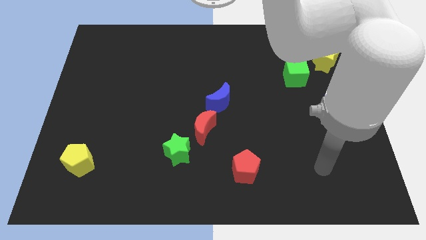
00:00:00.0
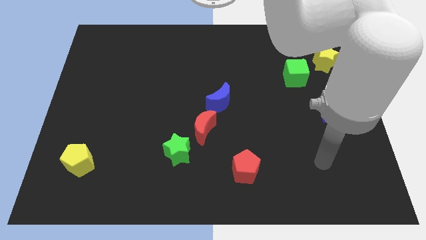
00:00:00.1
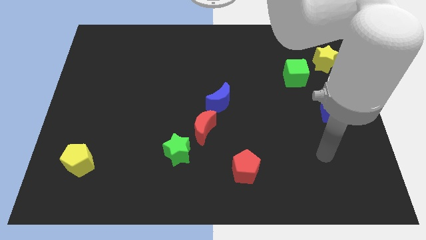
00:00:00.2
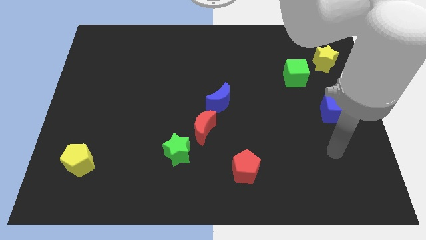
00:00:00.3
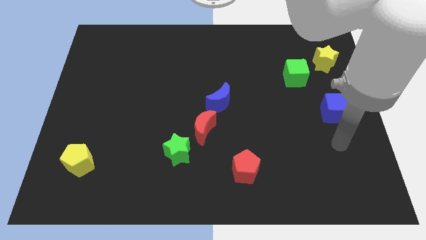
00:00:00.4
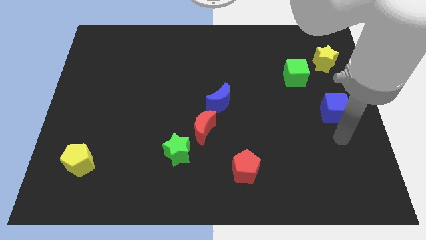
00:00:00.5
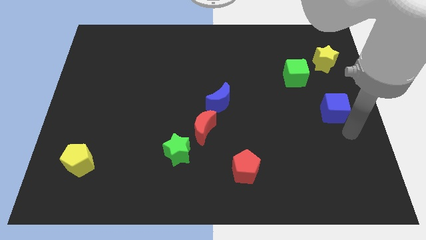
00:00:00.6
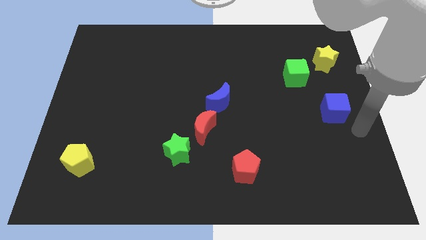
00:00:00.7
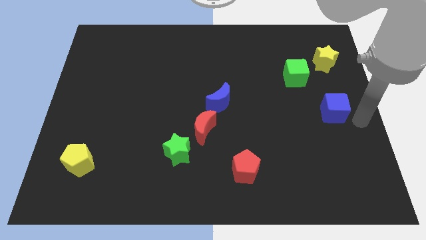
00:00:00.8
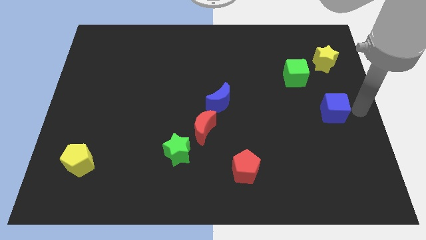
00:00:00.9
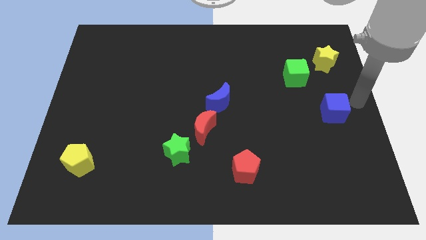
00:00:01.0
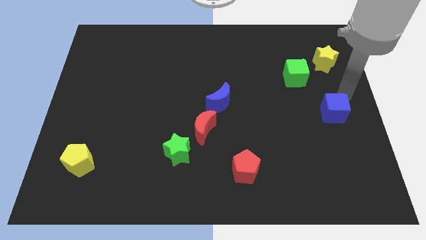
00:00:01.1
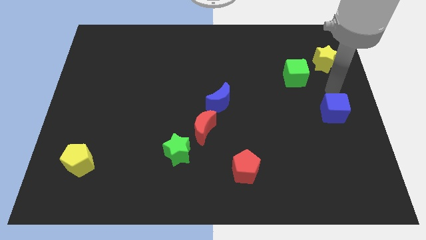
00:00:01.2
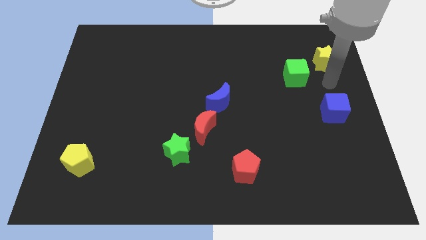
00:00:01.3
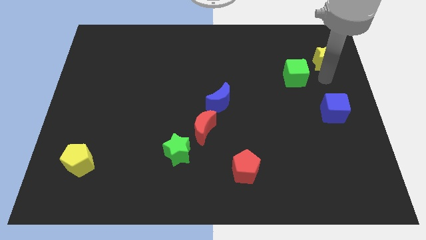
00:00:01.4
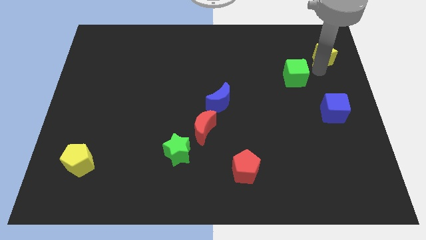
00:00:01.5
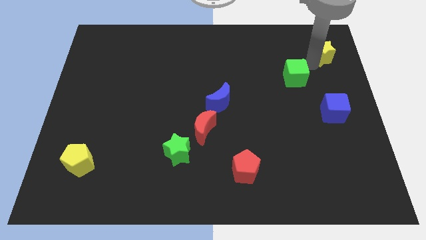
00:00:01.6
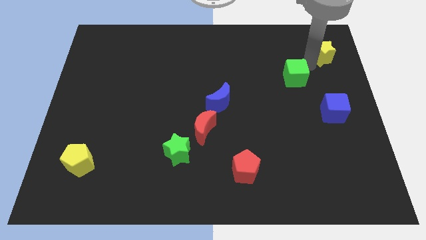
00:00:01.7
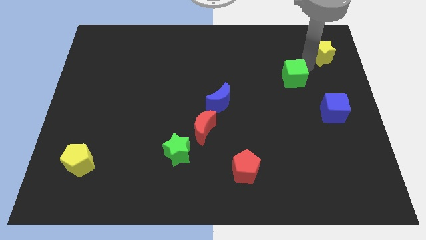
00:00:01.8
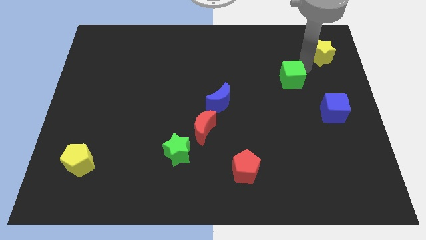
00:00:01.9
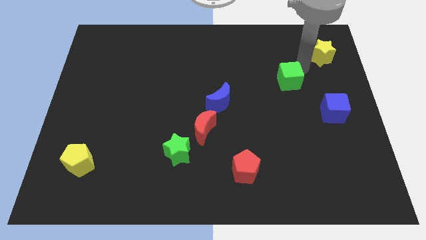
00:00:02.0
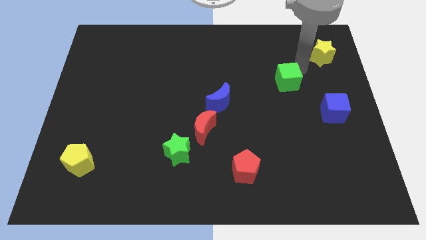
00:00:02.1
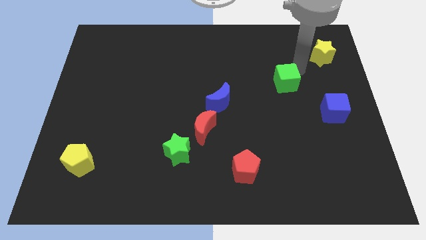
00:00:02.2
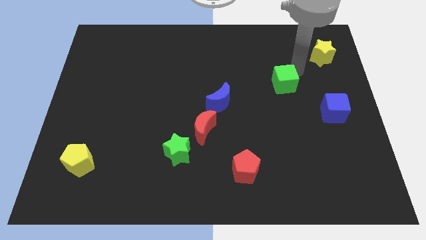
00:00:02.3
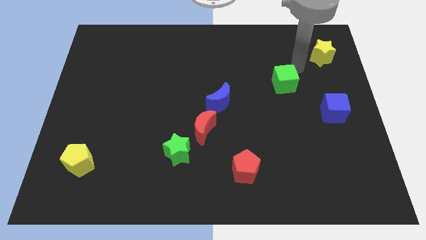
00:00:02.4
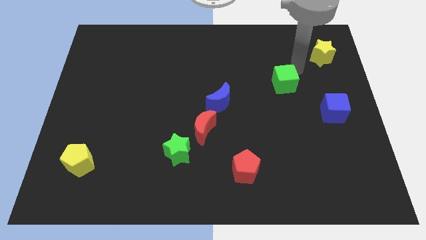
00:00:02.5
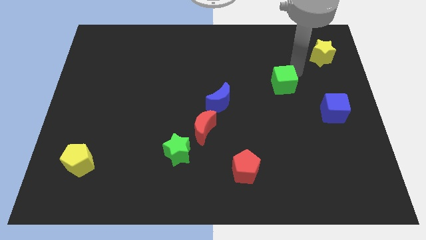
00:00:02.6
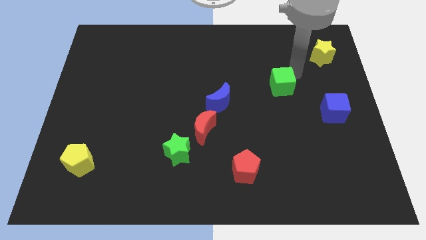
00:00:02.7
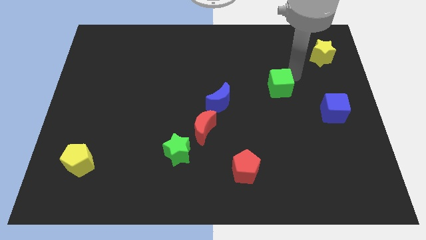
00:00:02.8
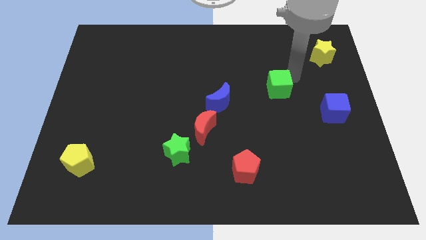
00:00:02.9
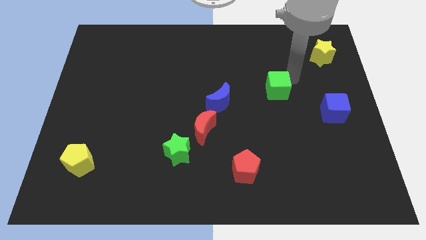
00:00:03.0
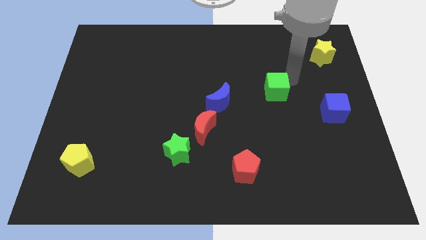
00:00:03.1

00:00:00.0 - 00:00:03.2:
move the green cube a little bit diagonally downwards and left

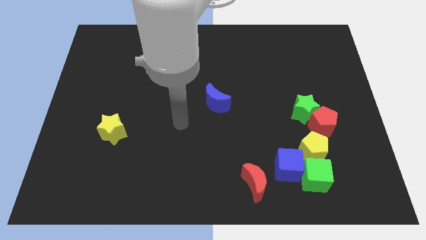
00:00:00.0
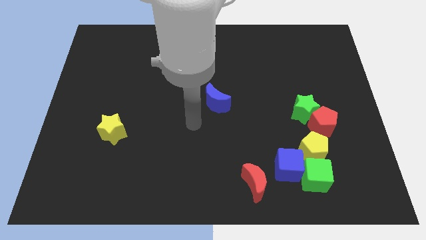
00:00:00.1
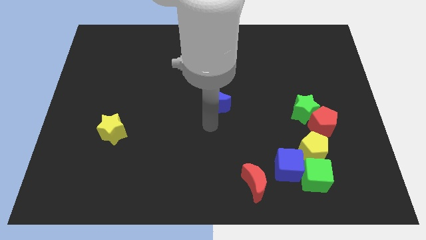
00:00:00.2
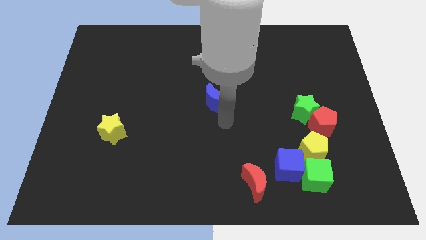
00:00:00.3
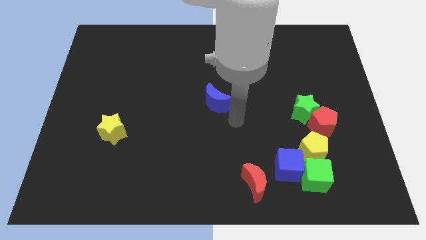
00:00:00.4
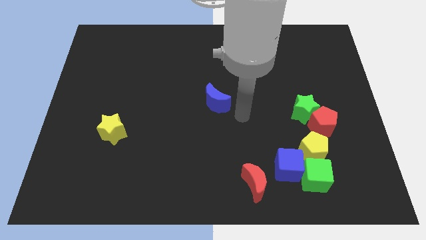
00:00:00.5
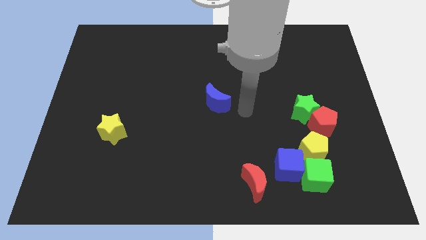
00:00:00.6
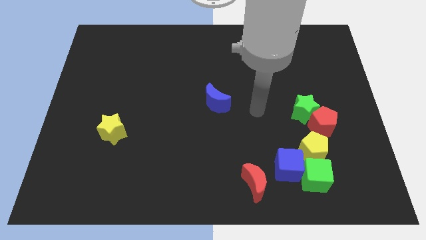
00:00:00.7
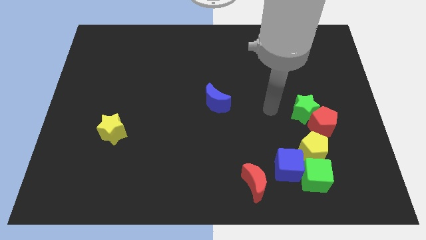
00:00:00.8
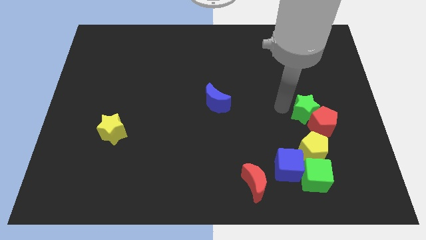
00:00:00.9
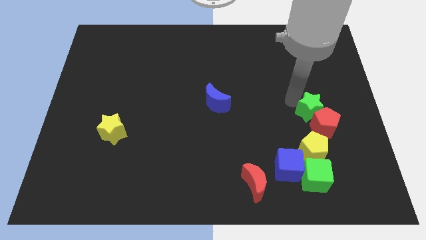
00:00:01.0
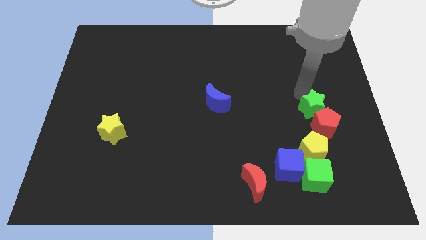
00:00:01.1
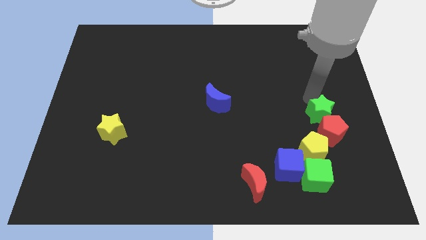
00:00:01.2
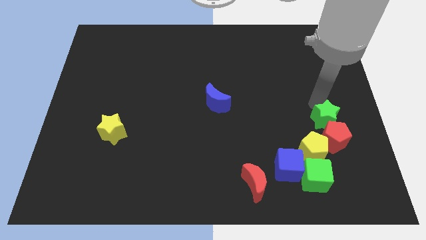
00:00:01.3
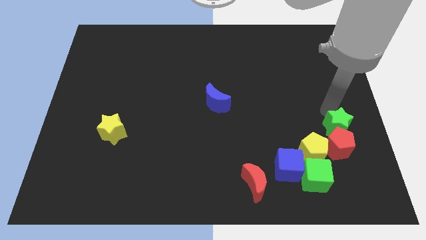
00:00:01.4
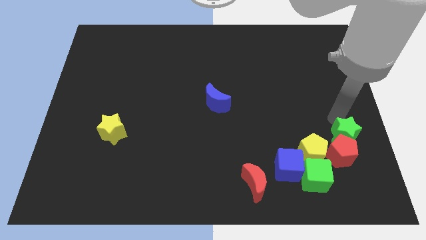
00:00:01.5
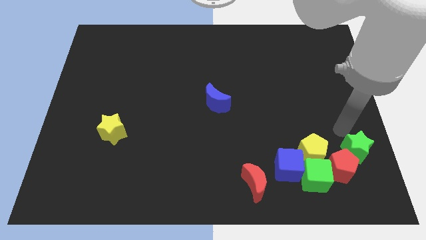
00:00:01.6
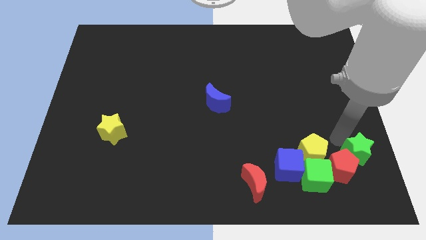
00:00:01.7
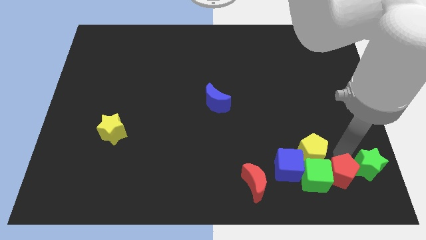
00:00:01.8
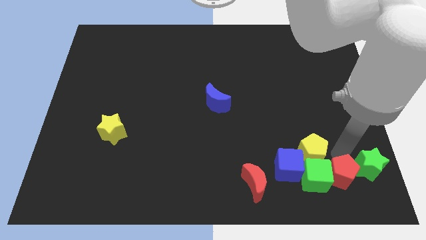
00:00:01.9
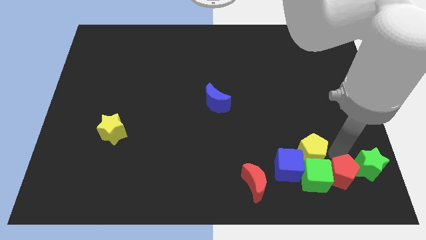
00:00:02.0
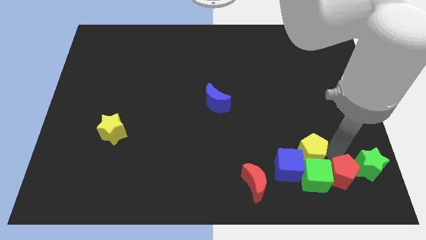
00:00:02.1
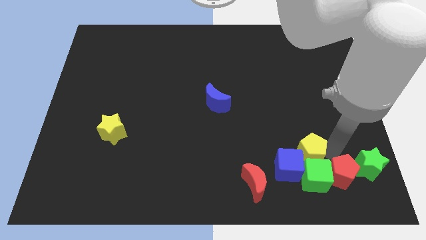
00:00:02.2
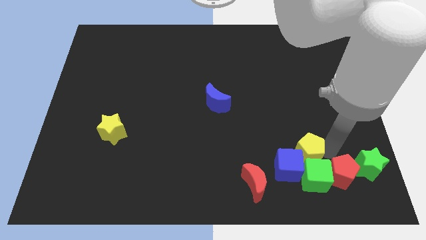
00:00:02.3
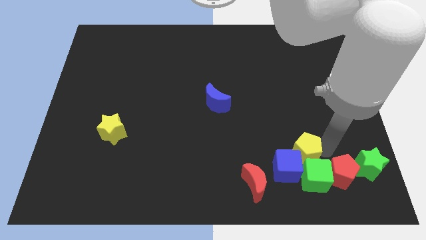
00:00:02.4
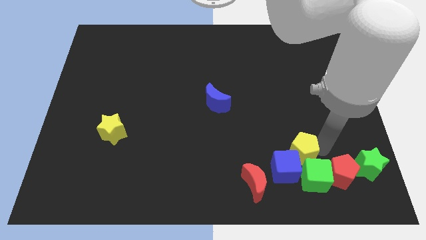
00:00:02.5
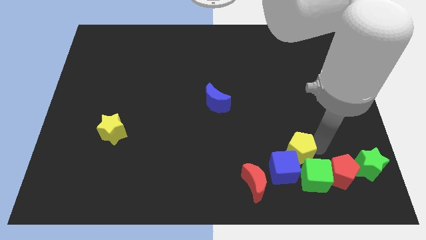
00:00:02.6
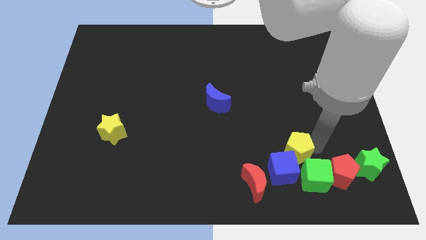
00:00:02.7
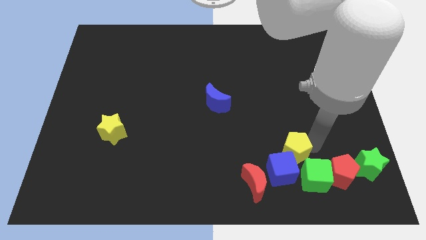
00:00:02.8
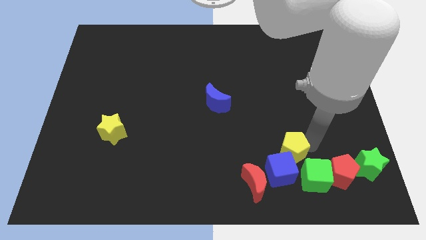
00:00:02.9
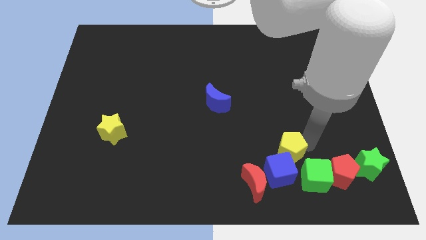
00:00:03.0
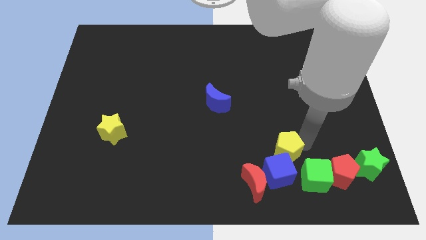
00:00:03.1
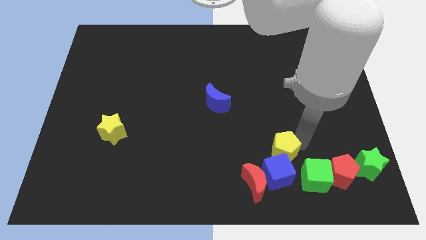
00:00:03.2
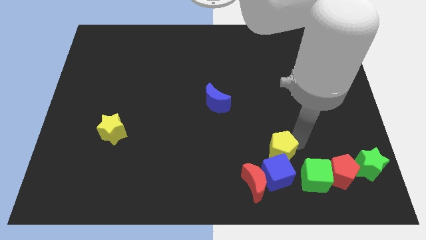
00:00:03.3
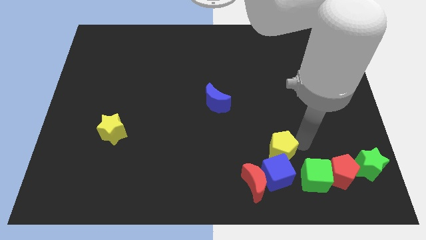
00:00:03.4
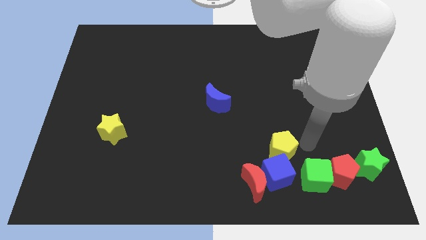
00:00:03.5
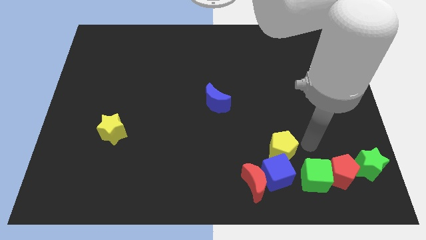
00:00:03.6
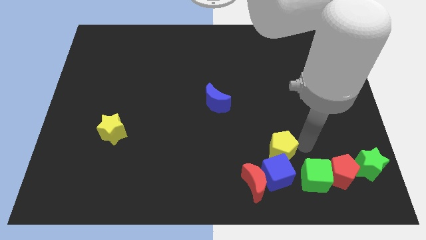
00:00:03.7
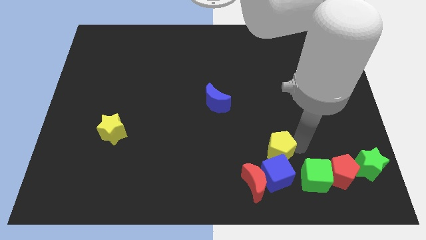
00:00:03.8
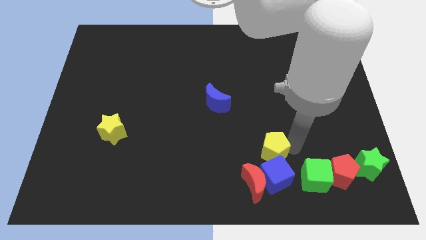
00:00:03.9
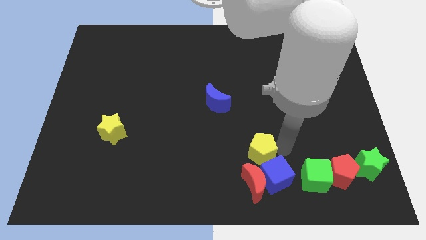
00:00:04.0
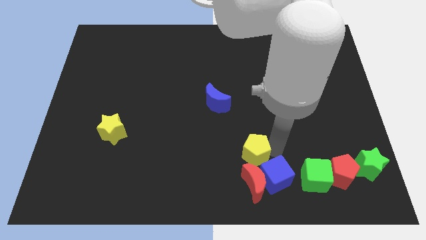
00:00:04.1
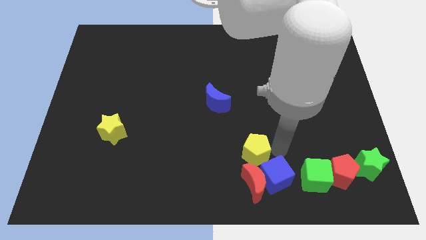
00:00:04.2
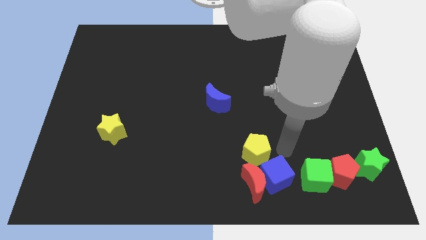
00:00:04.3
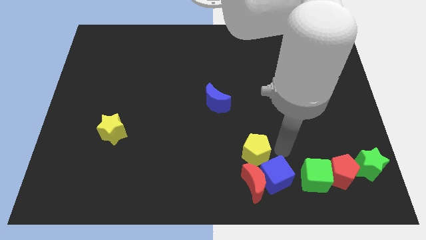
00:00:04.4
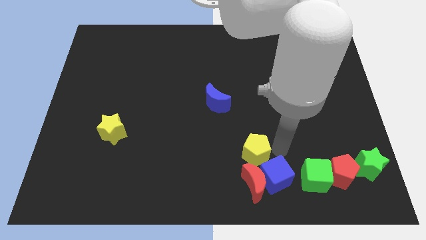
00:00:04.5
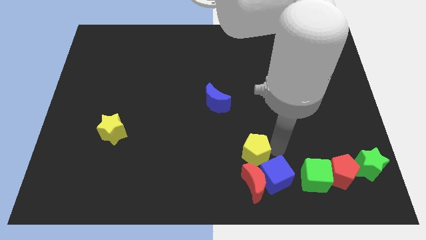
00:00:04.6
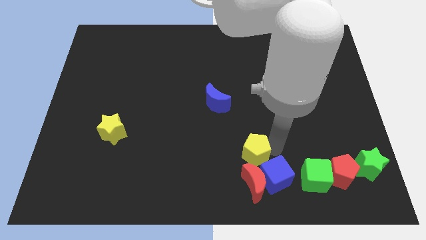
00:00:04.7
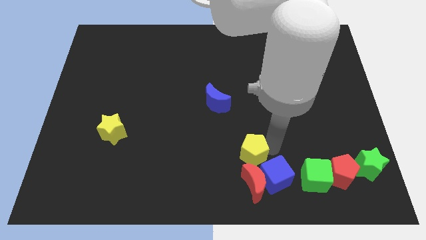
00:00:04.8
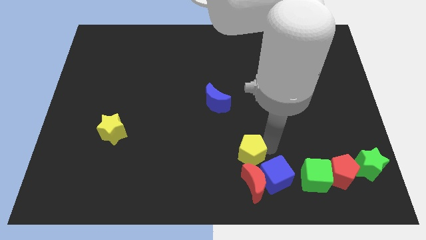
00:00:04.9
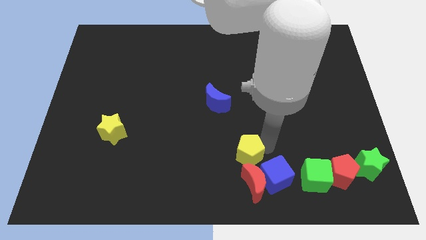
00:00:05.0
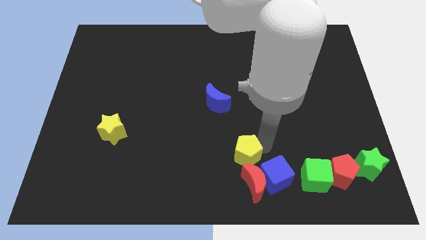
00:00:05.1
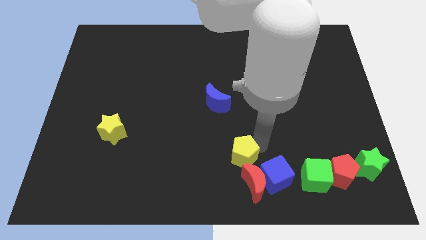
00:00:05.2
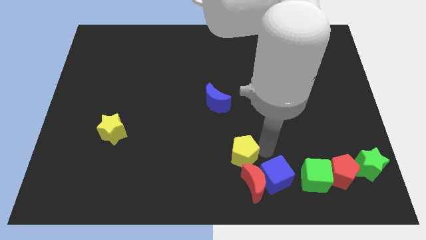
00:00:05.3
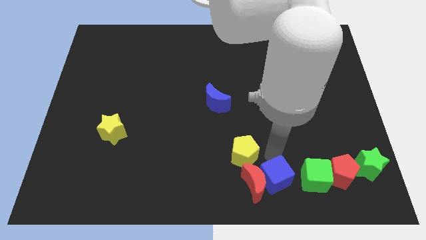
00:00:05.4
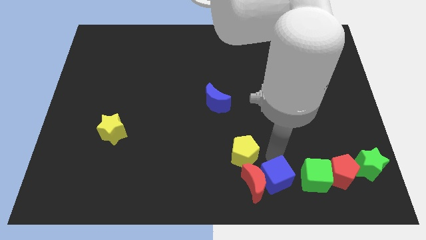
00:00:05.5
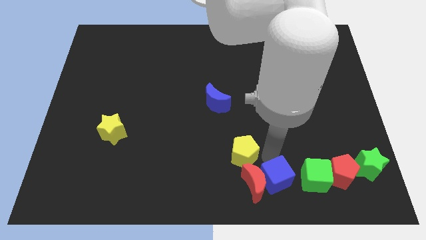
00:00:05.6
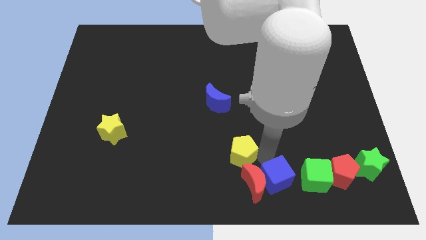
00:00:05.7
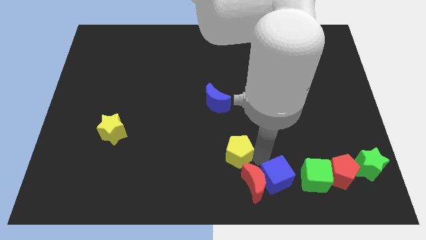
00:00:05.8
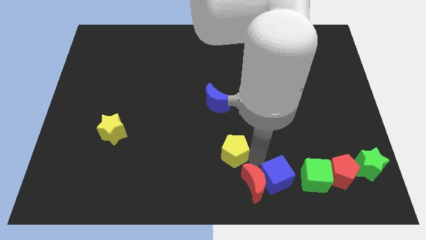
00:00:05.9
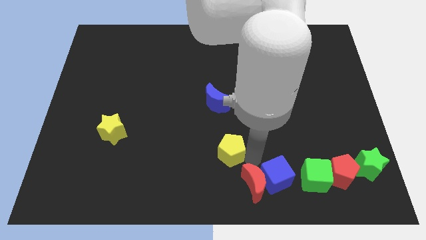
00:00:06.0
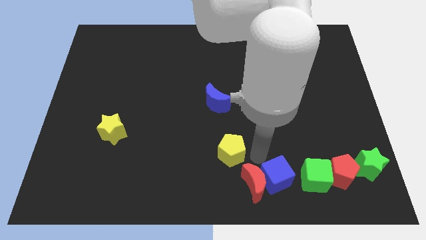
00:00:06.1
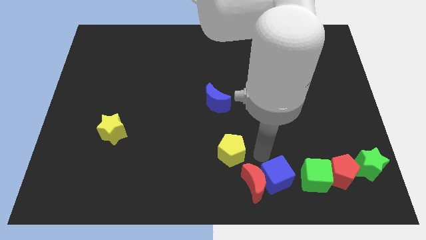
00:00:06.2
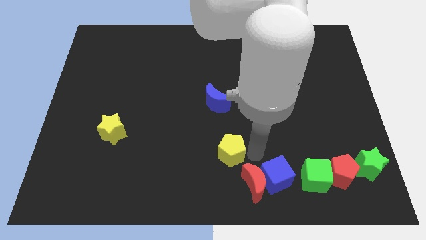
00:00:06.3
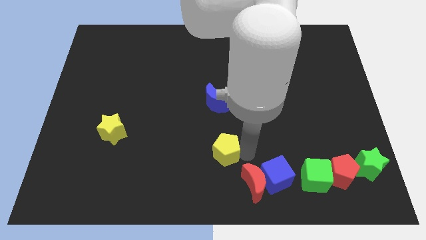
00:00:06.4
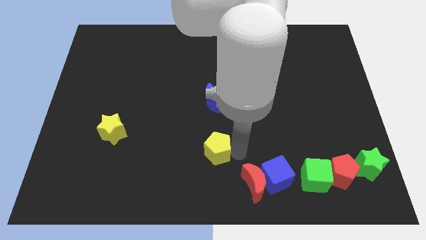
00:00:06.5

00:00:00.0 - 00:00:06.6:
move the yellow pentagon to the left
